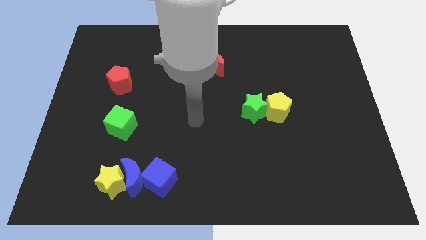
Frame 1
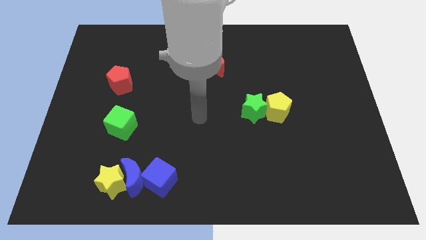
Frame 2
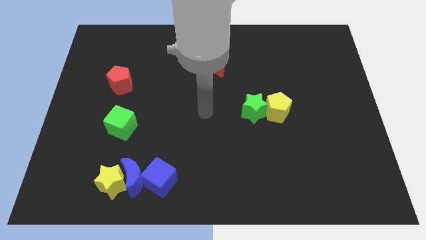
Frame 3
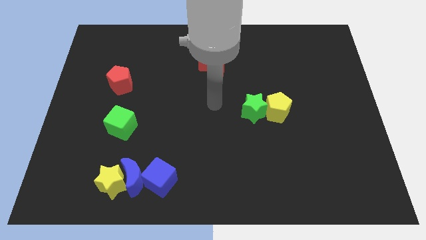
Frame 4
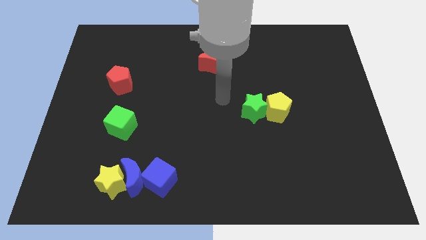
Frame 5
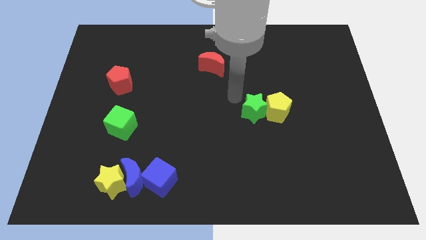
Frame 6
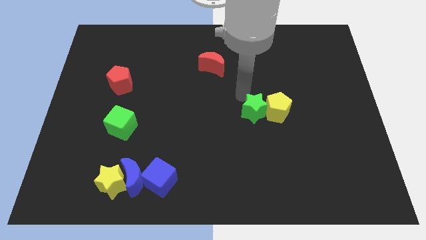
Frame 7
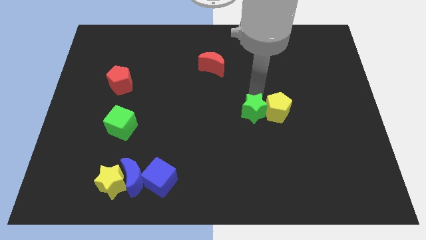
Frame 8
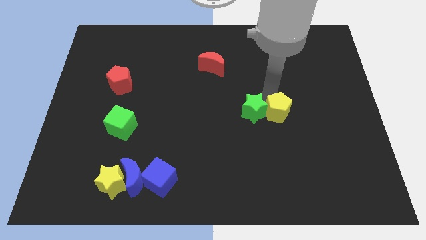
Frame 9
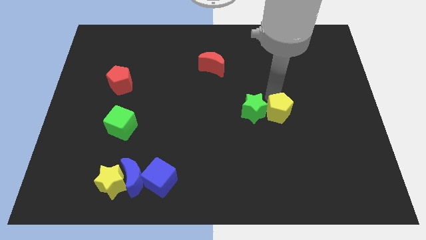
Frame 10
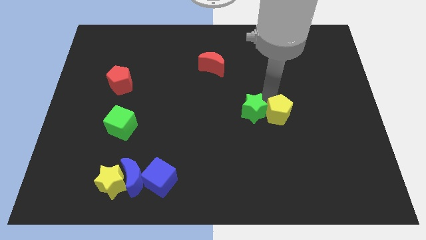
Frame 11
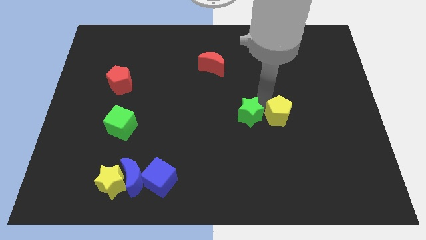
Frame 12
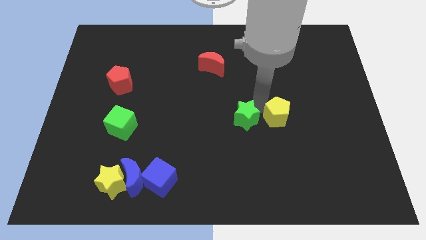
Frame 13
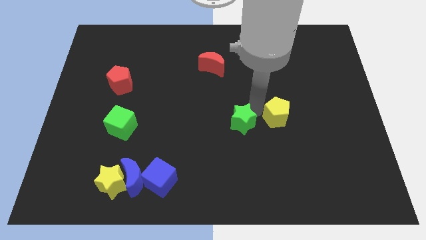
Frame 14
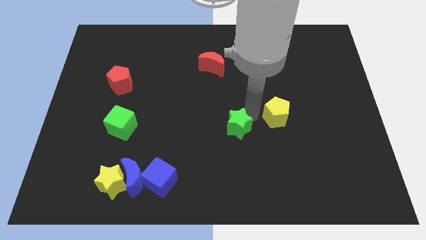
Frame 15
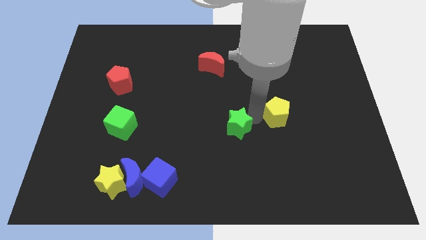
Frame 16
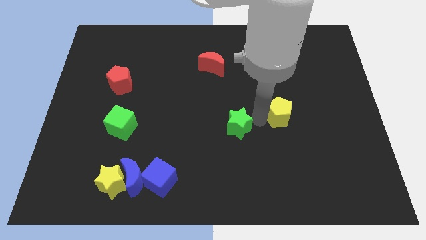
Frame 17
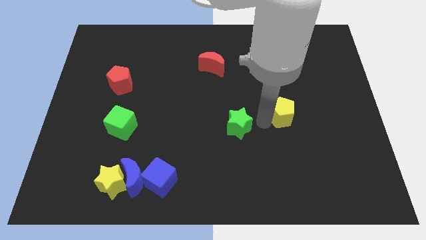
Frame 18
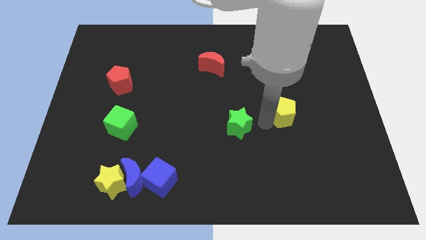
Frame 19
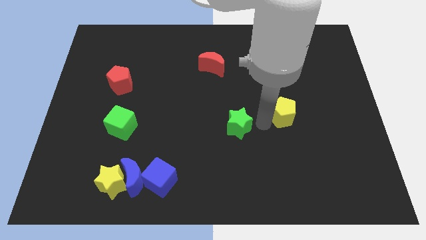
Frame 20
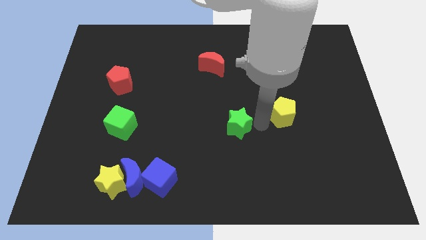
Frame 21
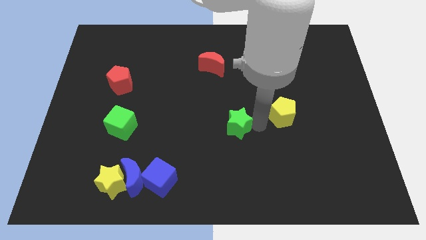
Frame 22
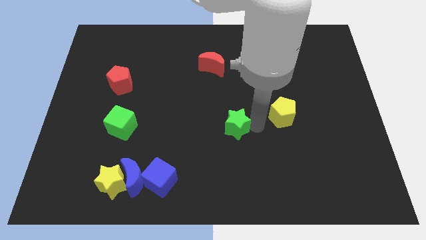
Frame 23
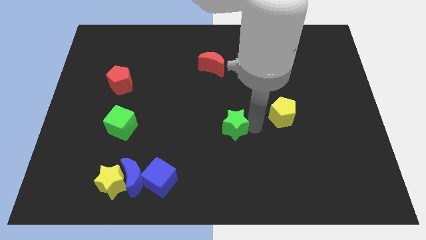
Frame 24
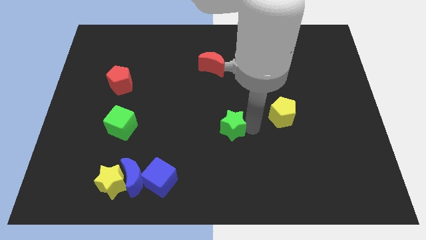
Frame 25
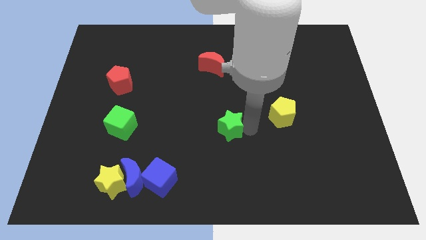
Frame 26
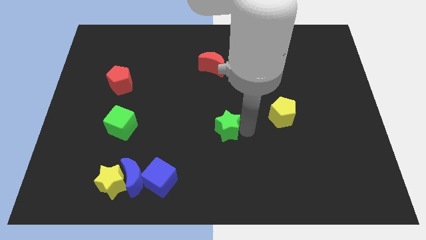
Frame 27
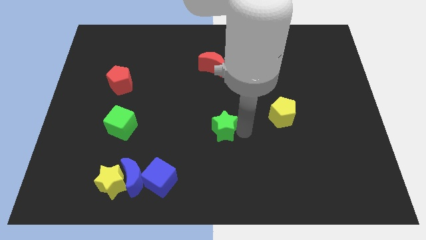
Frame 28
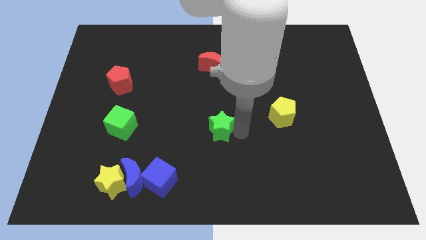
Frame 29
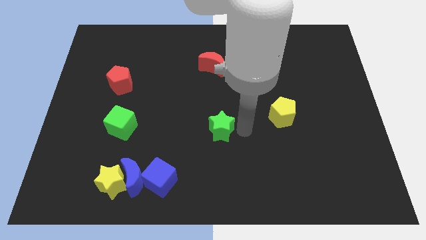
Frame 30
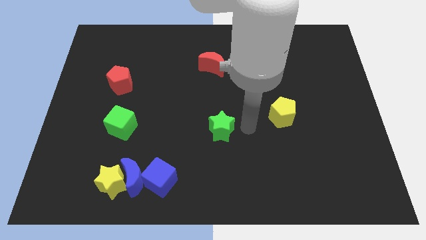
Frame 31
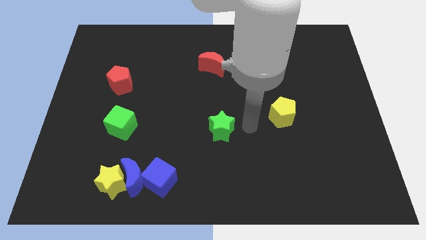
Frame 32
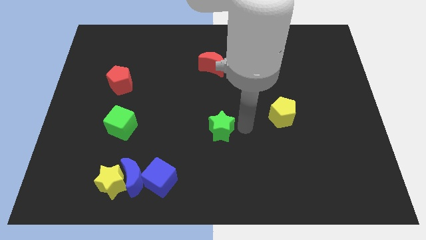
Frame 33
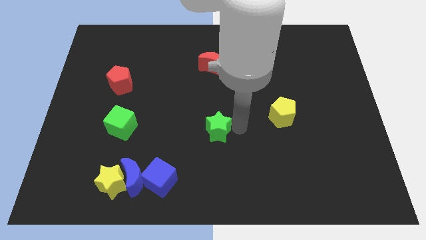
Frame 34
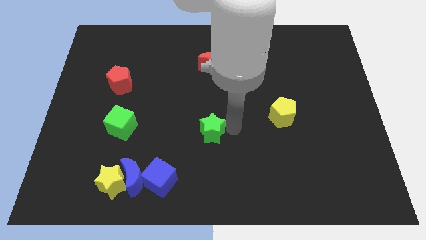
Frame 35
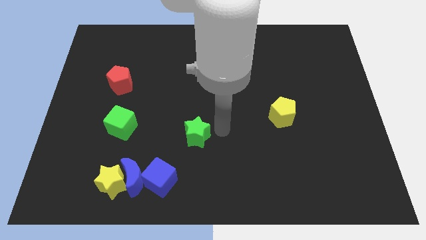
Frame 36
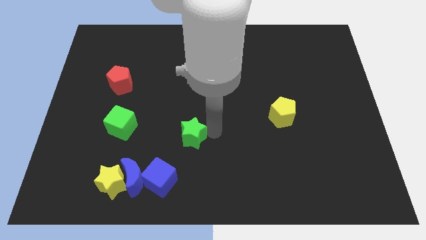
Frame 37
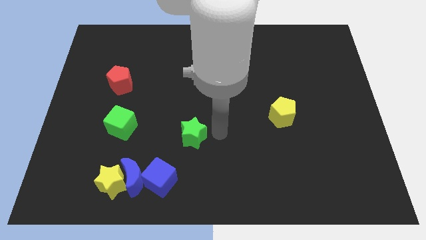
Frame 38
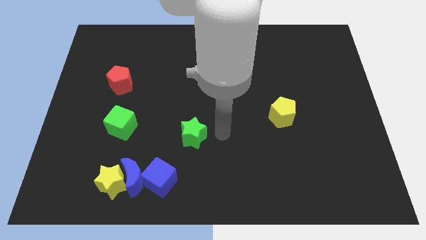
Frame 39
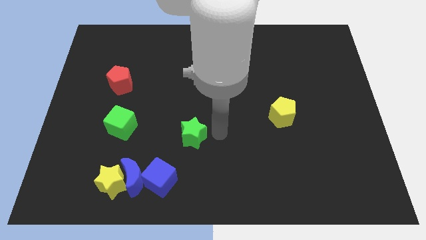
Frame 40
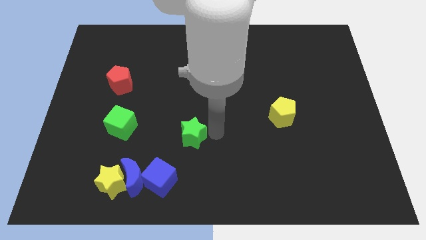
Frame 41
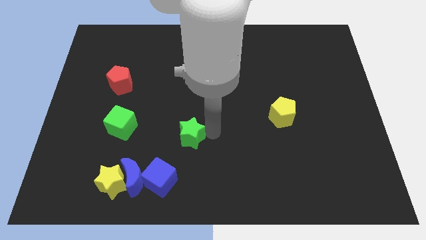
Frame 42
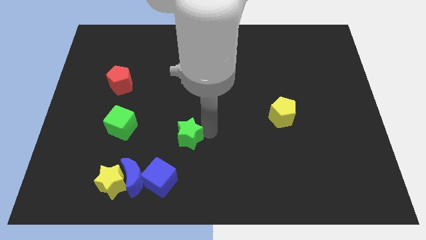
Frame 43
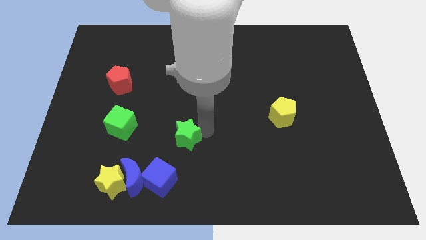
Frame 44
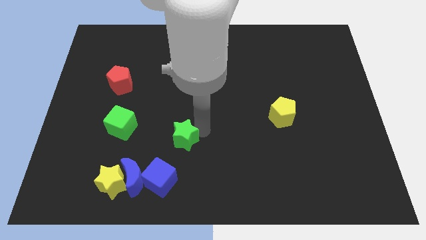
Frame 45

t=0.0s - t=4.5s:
push the green star to the top of the blue cube

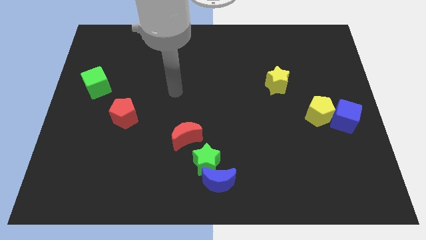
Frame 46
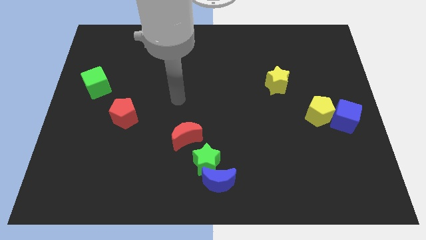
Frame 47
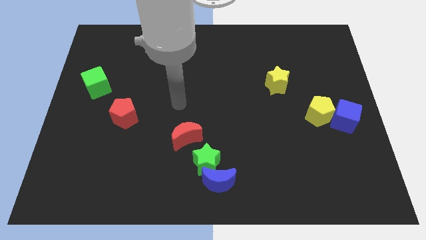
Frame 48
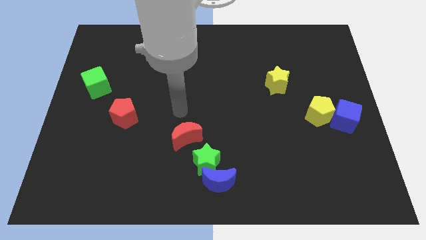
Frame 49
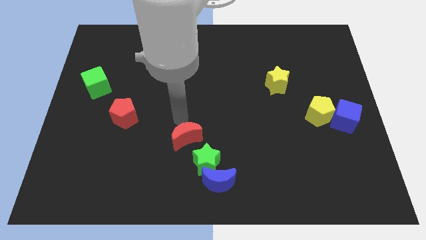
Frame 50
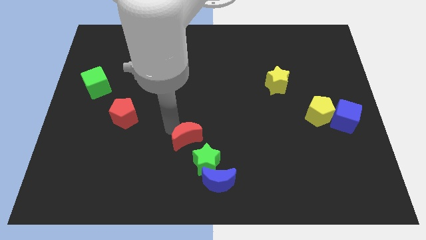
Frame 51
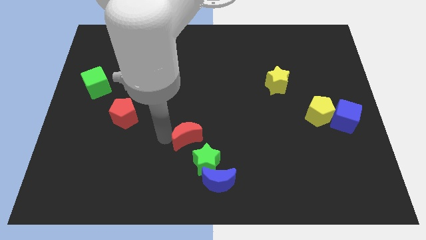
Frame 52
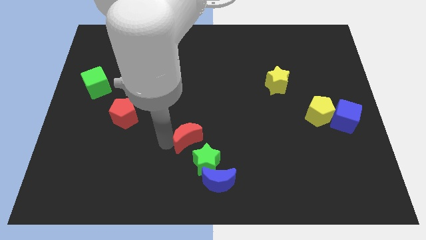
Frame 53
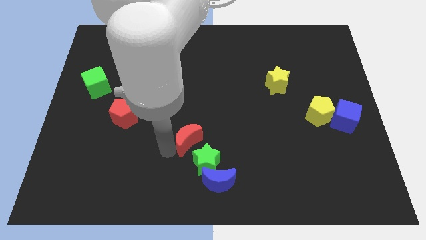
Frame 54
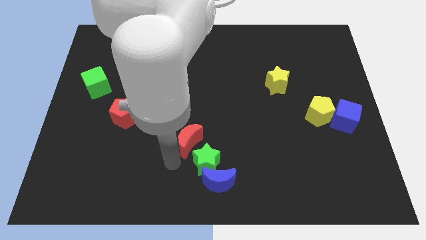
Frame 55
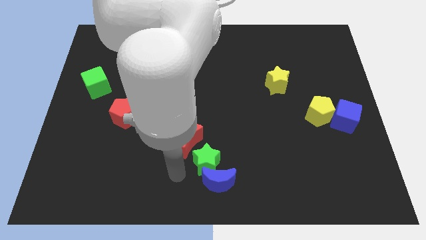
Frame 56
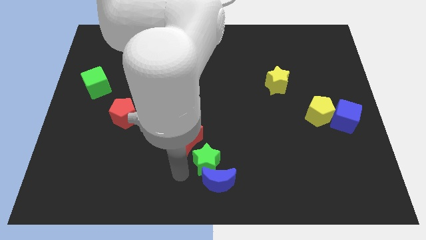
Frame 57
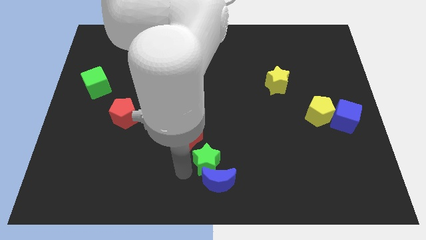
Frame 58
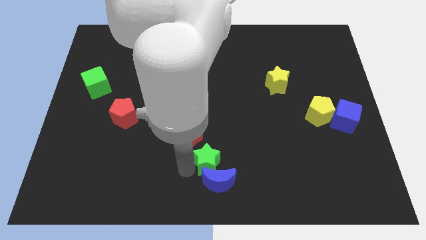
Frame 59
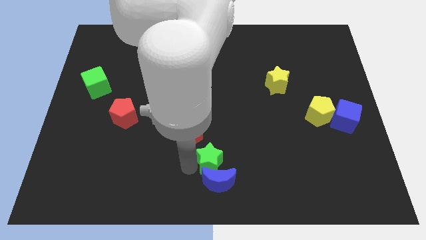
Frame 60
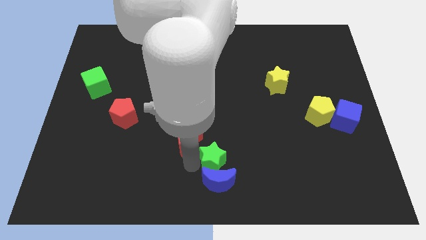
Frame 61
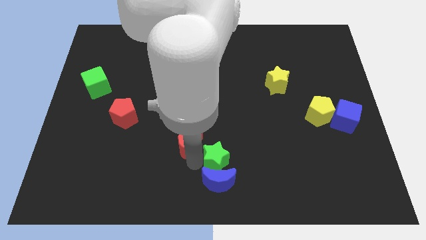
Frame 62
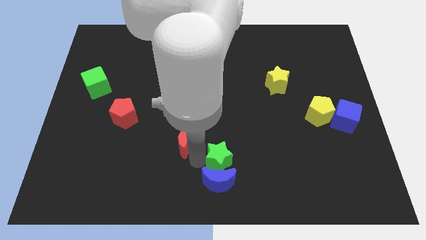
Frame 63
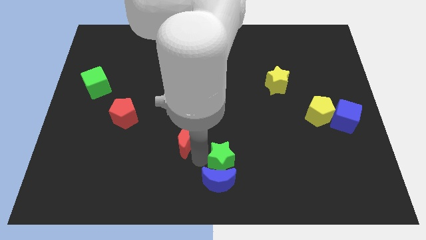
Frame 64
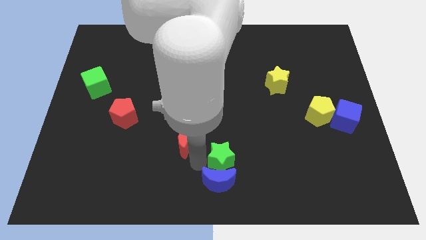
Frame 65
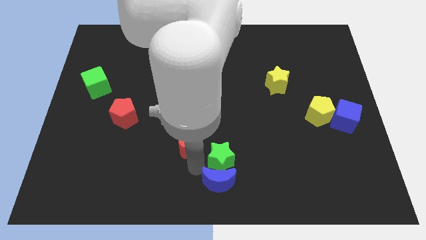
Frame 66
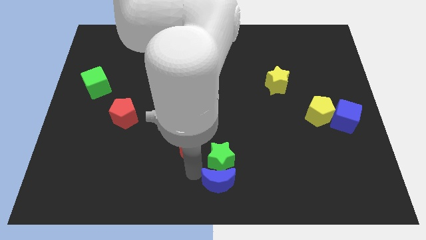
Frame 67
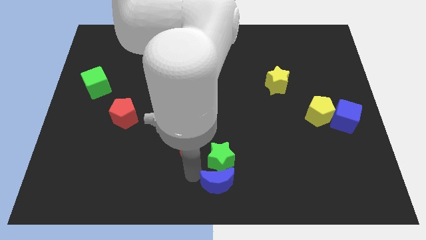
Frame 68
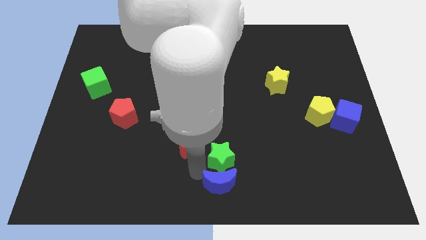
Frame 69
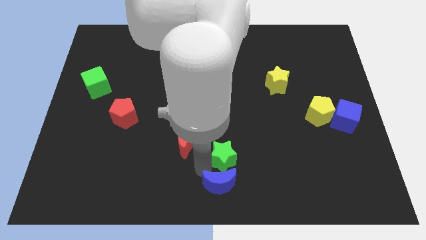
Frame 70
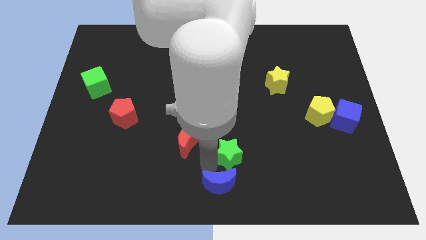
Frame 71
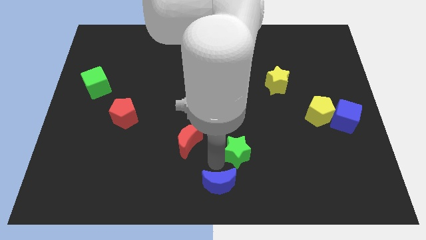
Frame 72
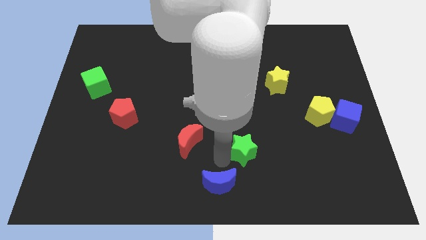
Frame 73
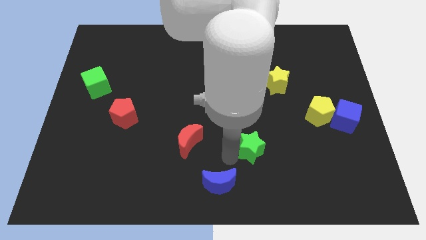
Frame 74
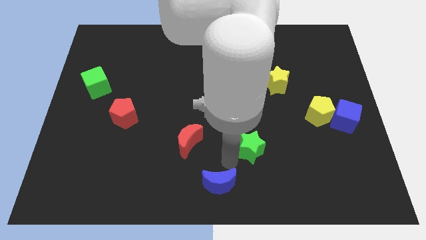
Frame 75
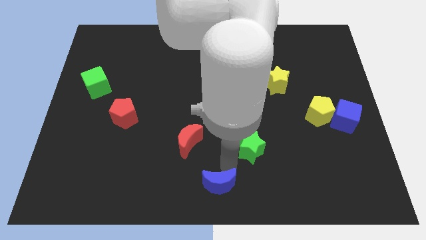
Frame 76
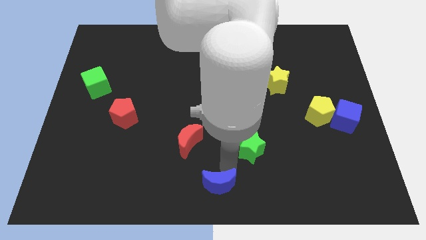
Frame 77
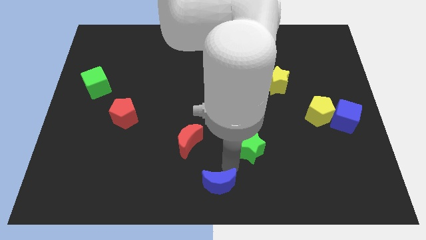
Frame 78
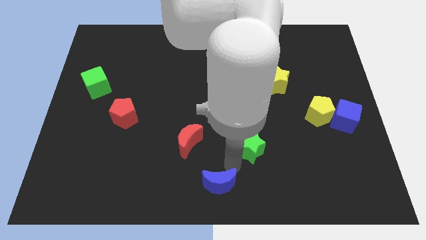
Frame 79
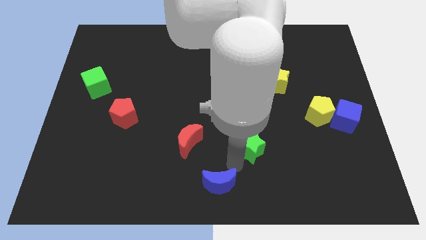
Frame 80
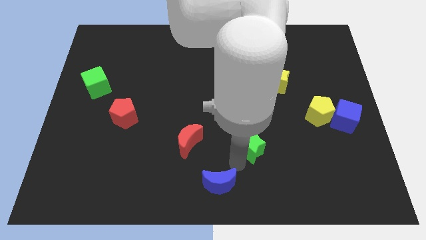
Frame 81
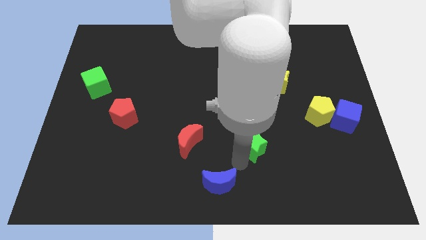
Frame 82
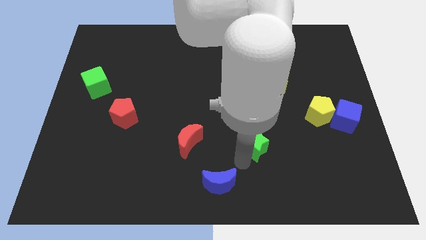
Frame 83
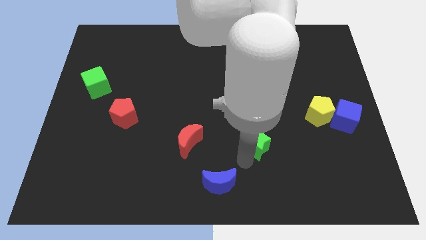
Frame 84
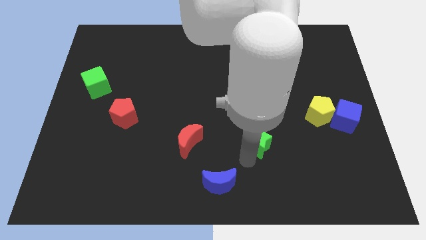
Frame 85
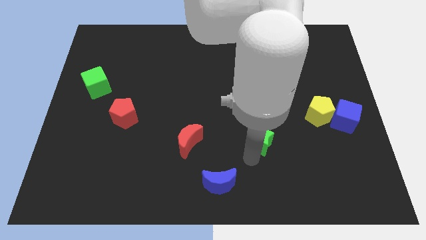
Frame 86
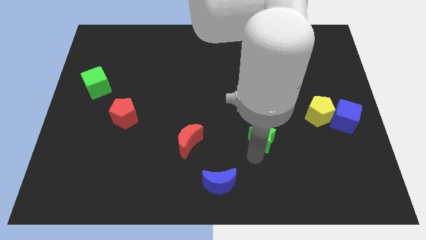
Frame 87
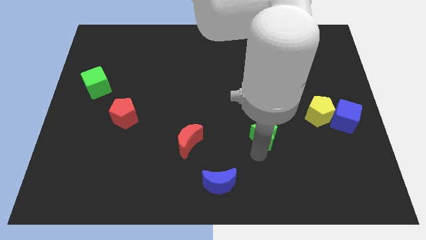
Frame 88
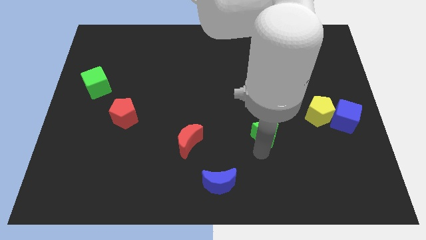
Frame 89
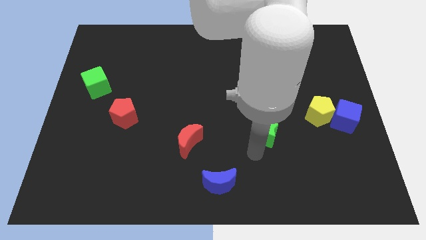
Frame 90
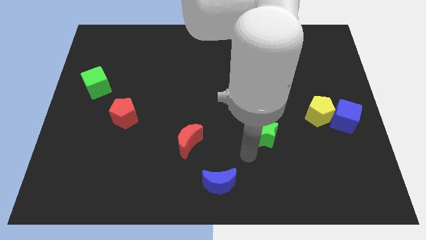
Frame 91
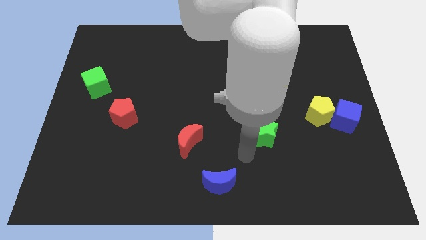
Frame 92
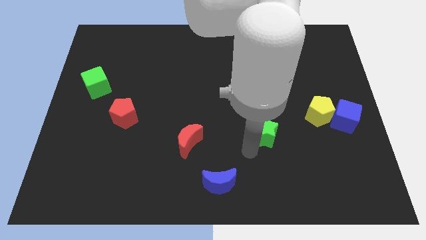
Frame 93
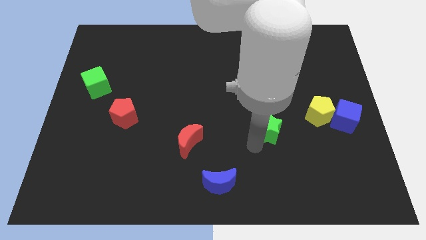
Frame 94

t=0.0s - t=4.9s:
slide the green star to the bottom of the yellow star
